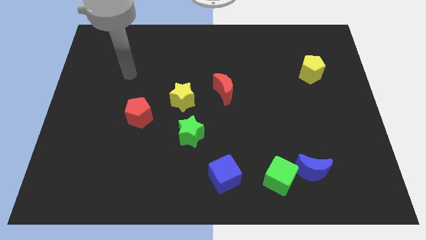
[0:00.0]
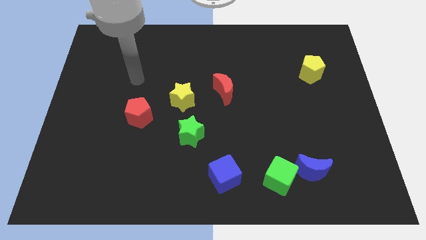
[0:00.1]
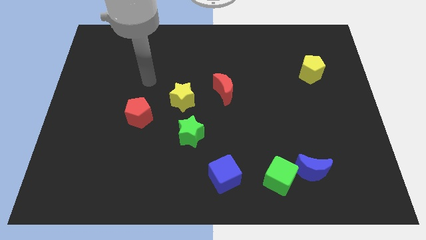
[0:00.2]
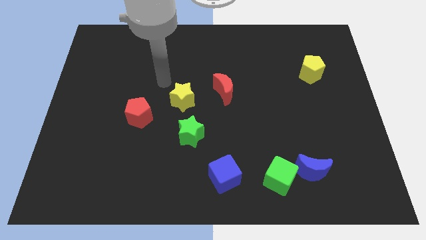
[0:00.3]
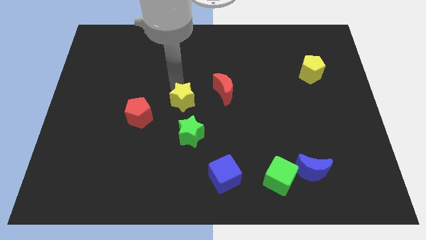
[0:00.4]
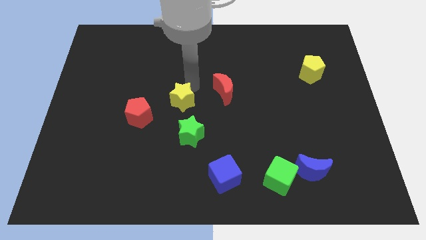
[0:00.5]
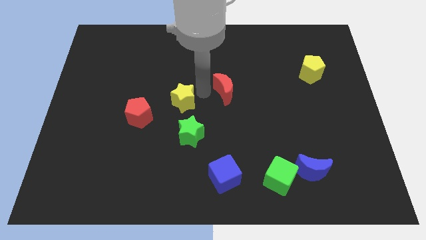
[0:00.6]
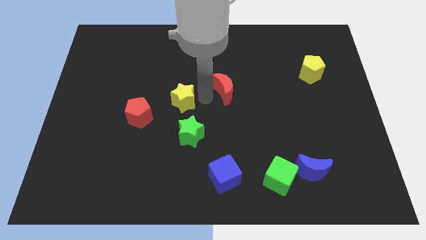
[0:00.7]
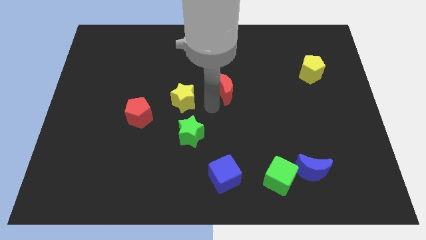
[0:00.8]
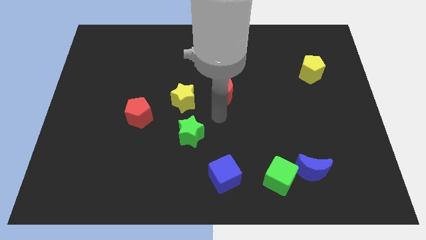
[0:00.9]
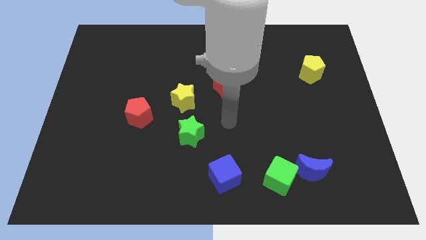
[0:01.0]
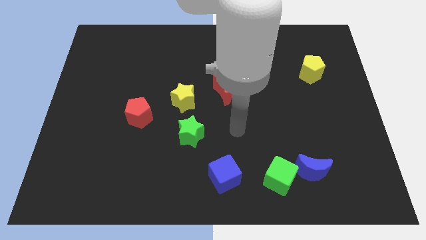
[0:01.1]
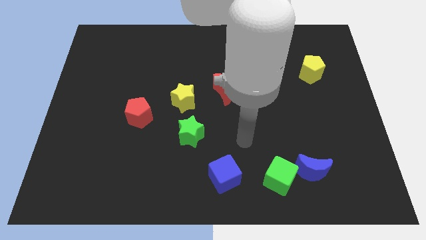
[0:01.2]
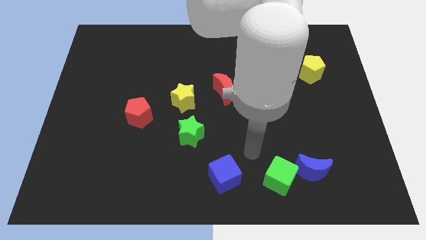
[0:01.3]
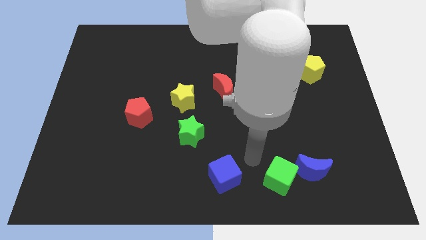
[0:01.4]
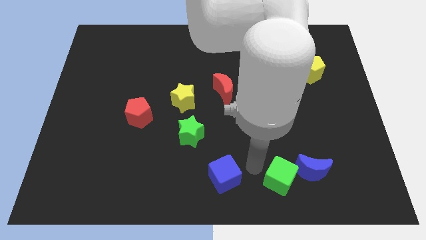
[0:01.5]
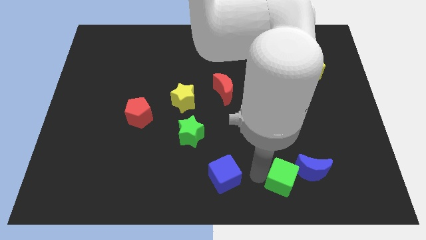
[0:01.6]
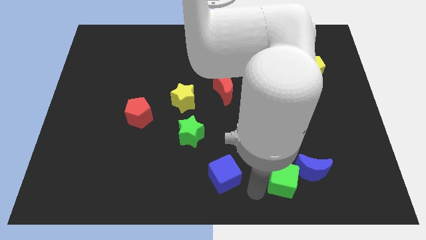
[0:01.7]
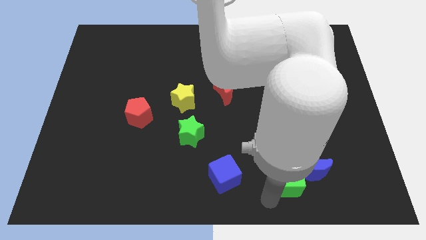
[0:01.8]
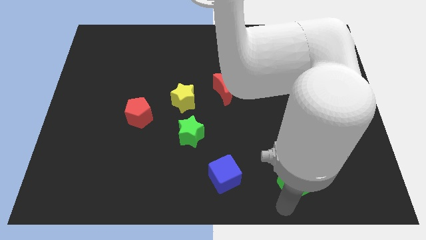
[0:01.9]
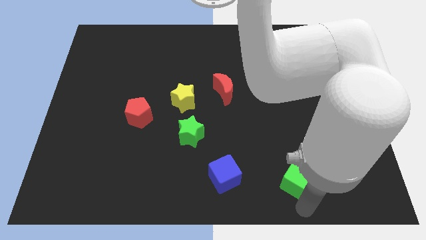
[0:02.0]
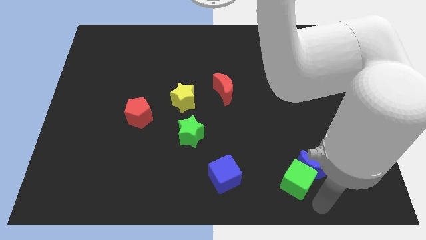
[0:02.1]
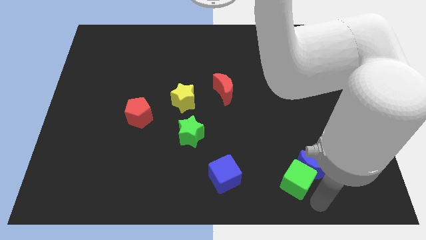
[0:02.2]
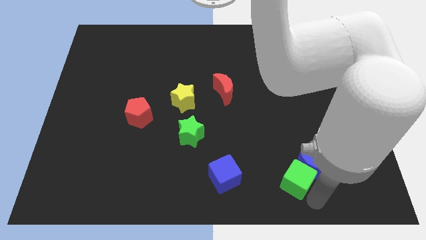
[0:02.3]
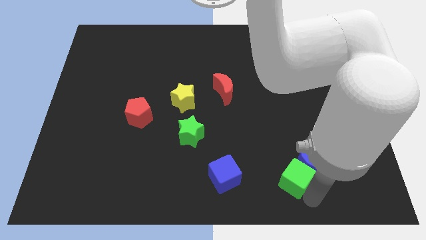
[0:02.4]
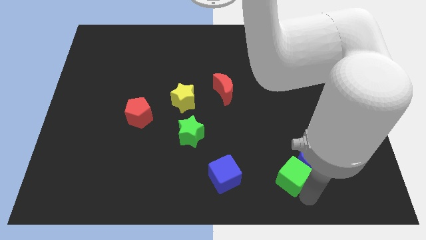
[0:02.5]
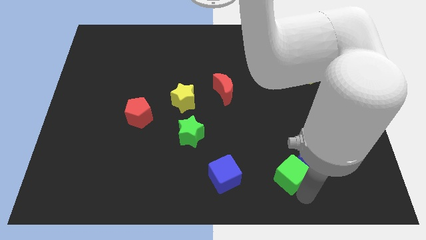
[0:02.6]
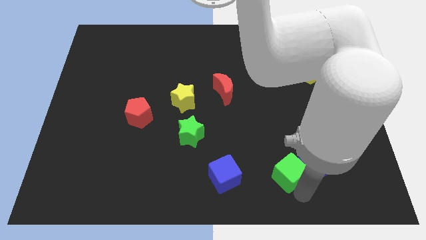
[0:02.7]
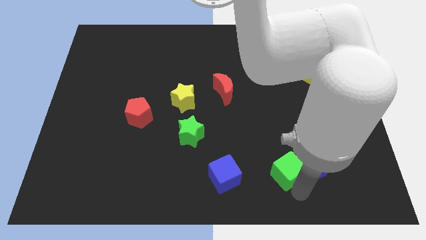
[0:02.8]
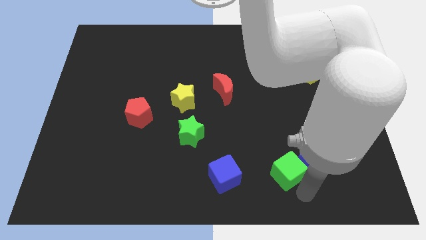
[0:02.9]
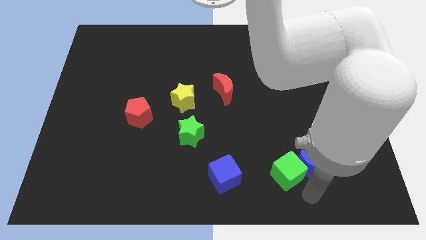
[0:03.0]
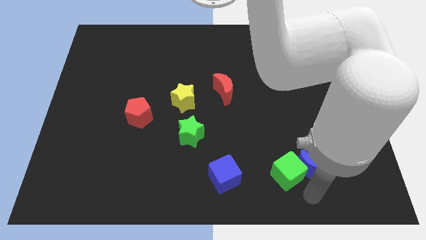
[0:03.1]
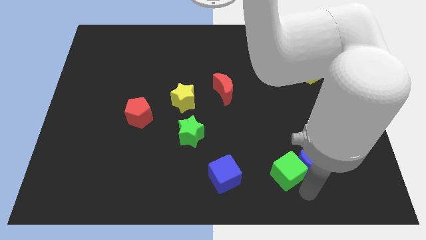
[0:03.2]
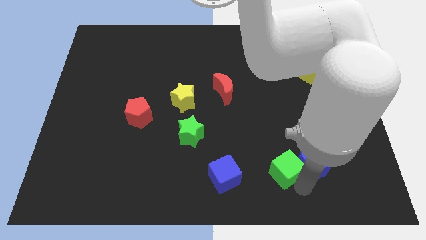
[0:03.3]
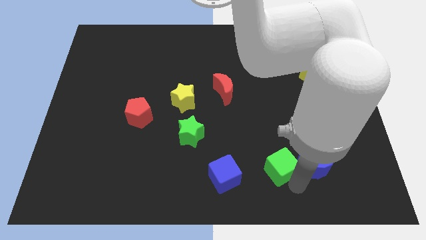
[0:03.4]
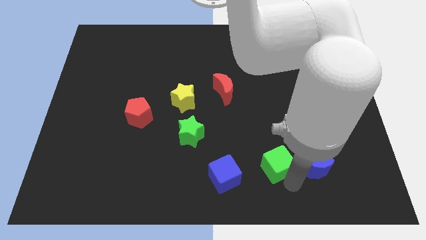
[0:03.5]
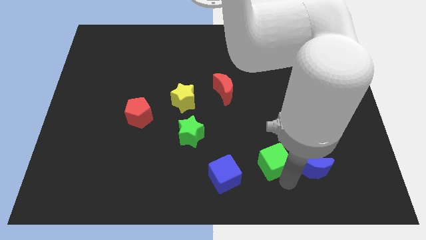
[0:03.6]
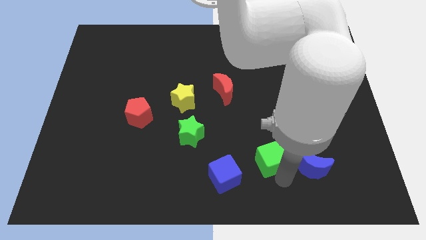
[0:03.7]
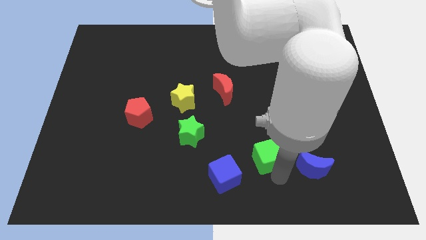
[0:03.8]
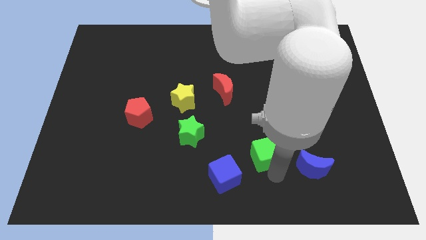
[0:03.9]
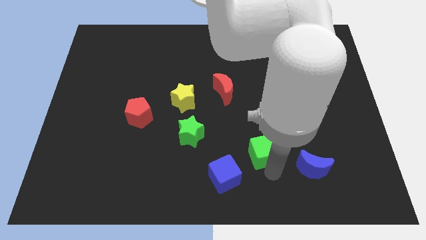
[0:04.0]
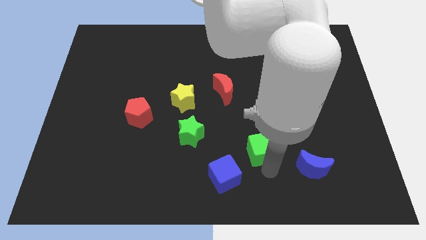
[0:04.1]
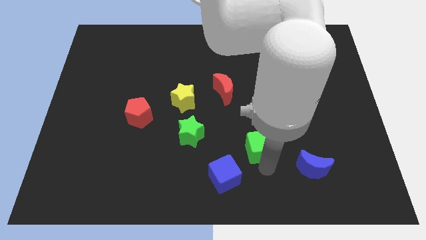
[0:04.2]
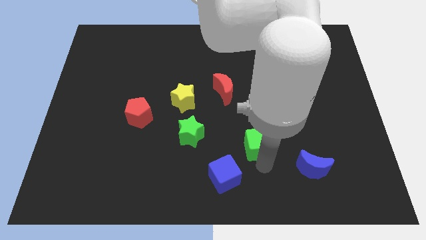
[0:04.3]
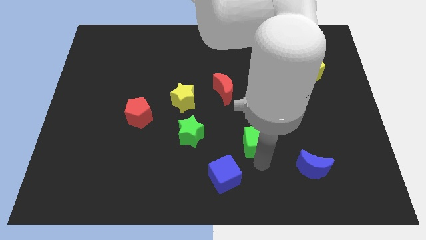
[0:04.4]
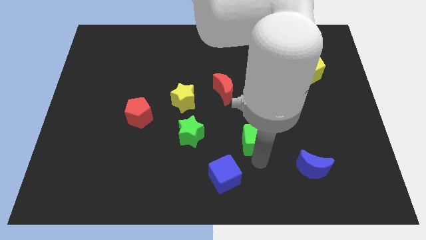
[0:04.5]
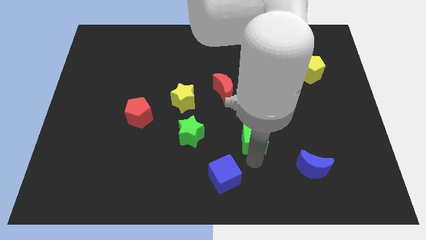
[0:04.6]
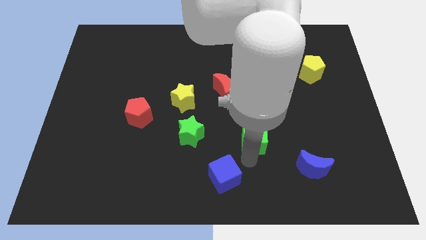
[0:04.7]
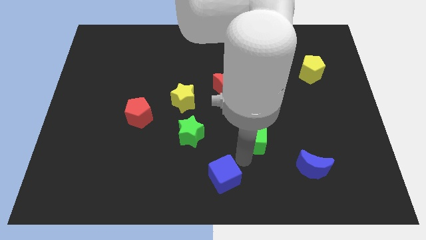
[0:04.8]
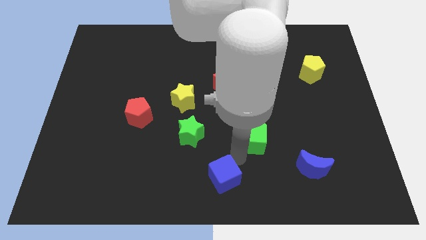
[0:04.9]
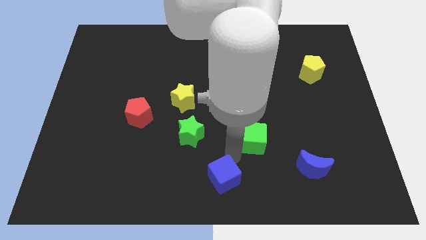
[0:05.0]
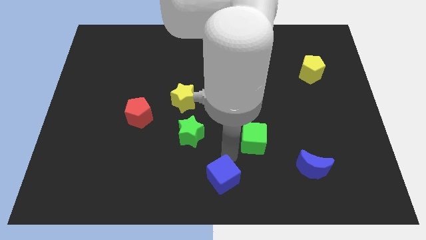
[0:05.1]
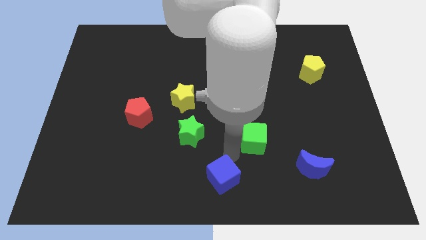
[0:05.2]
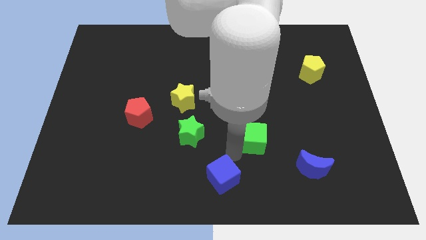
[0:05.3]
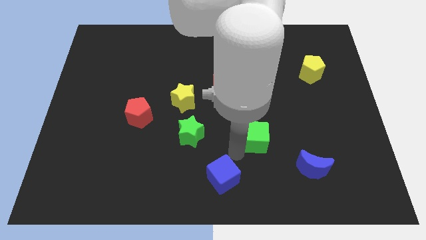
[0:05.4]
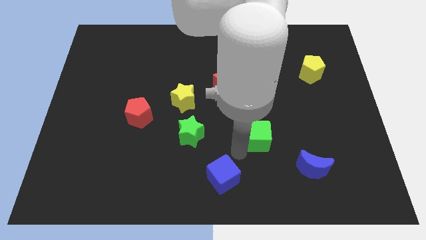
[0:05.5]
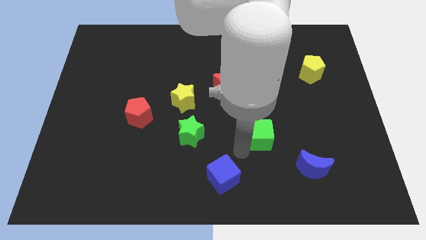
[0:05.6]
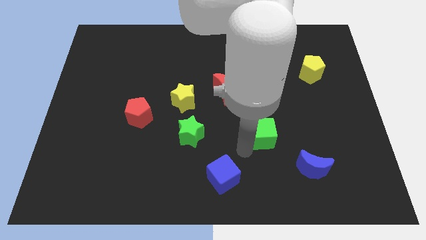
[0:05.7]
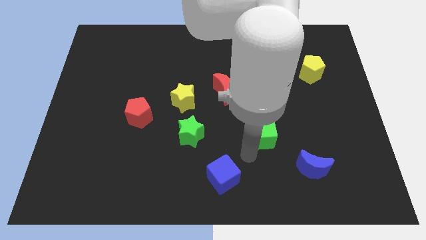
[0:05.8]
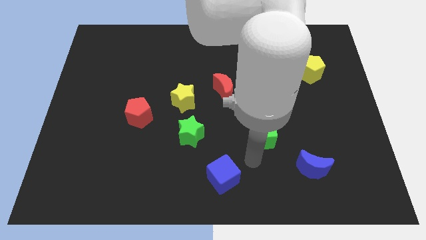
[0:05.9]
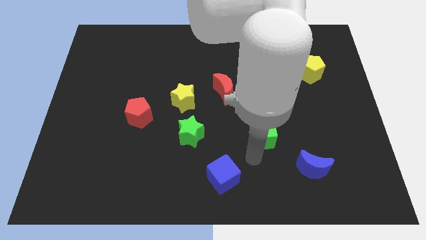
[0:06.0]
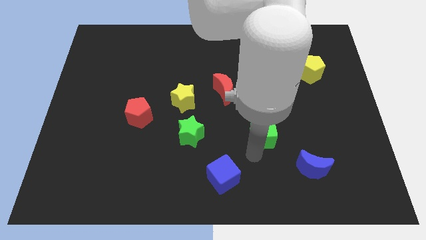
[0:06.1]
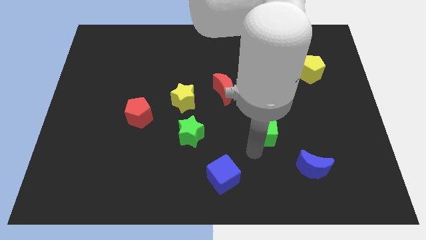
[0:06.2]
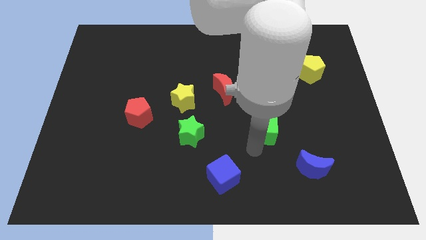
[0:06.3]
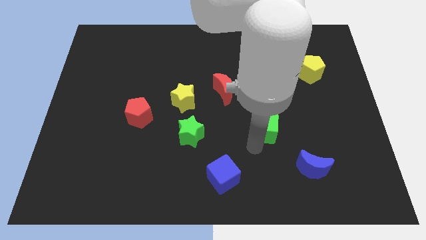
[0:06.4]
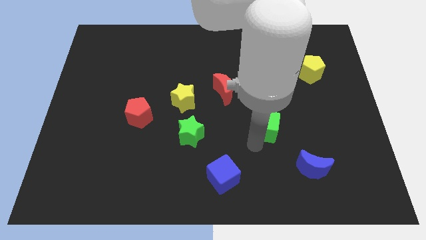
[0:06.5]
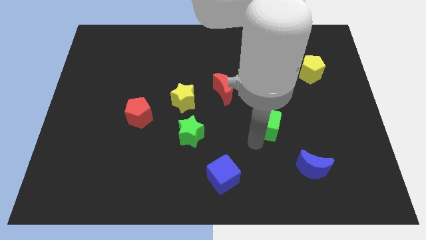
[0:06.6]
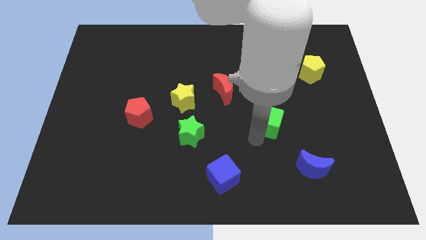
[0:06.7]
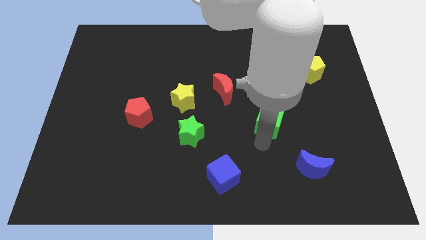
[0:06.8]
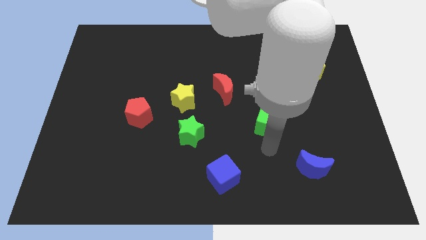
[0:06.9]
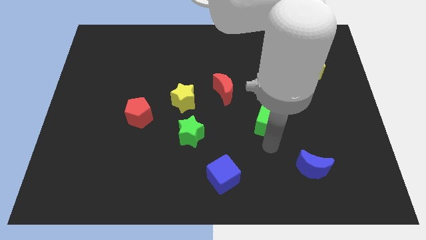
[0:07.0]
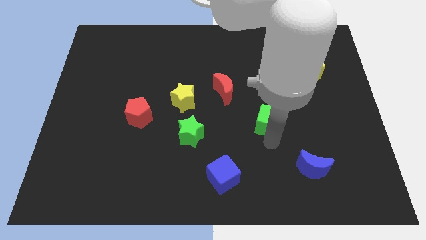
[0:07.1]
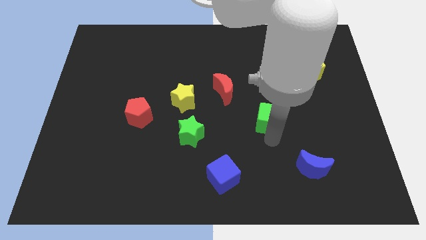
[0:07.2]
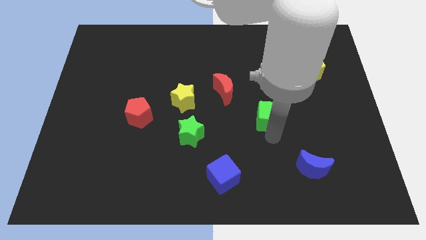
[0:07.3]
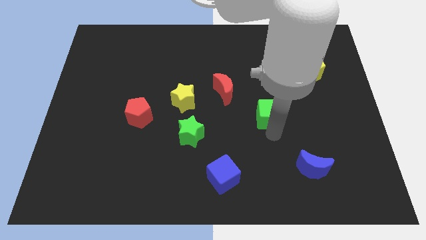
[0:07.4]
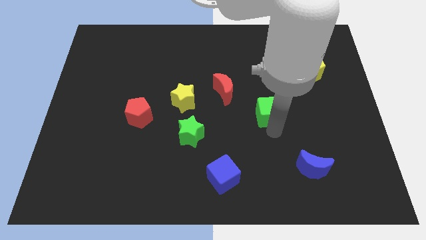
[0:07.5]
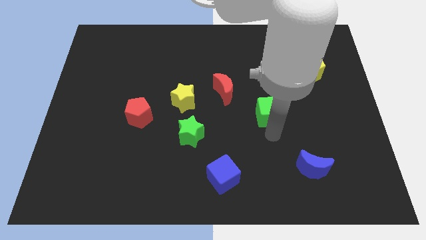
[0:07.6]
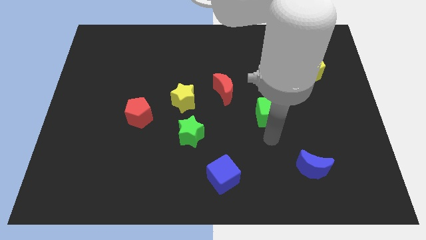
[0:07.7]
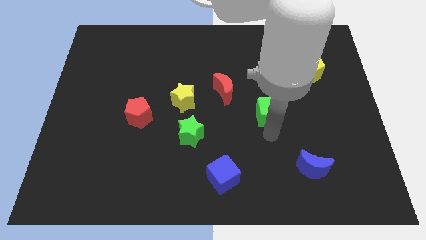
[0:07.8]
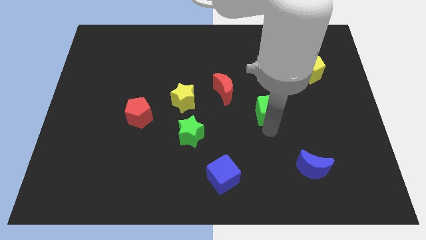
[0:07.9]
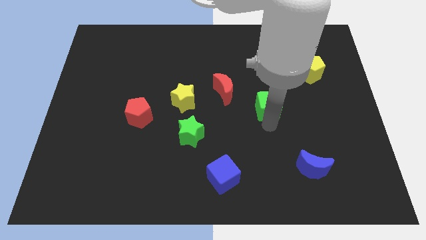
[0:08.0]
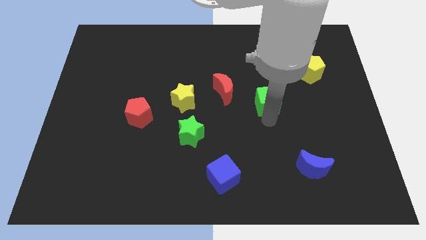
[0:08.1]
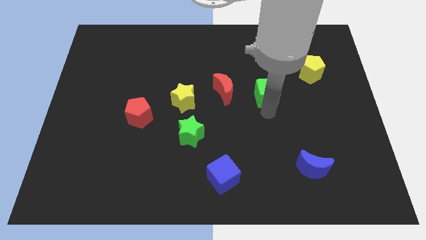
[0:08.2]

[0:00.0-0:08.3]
move the green cube up

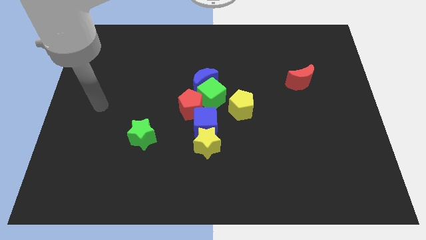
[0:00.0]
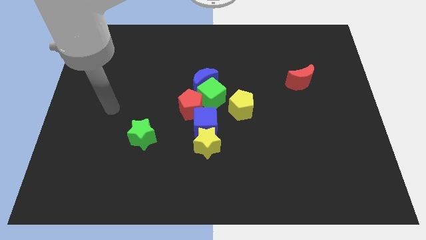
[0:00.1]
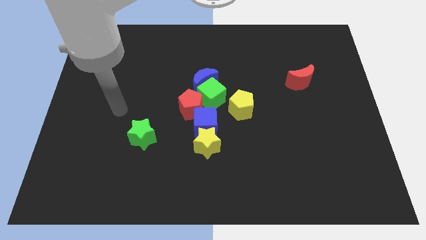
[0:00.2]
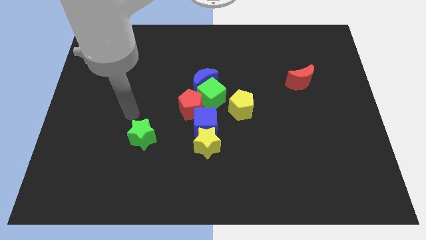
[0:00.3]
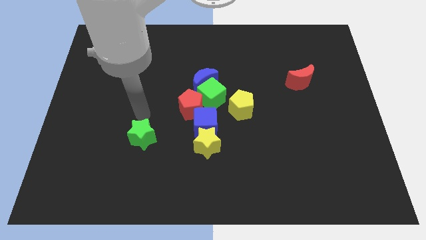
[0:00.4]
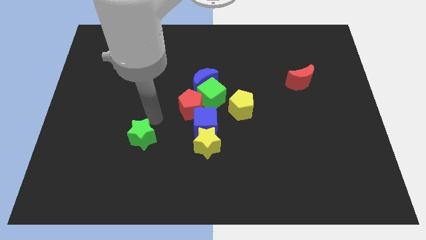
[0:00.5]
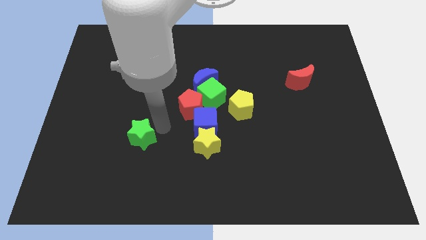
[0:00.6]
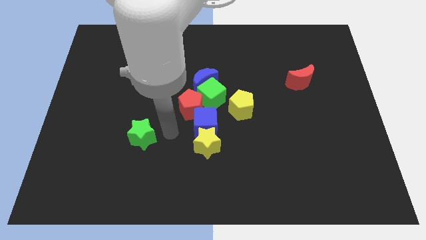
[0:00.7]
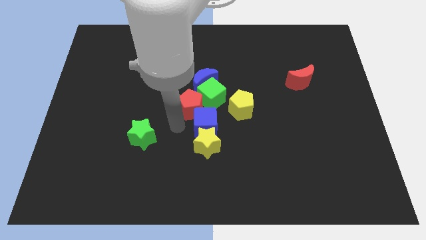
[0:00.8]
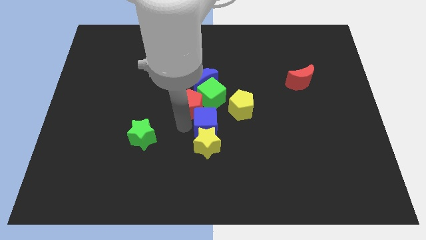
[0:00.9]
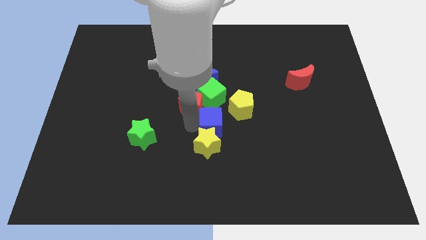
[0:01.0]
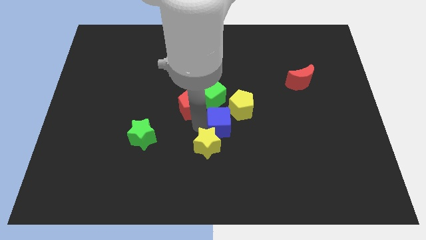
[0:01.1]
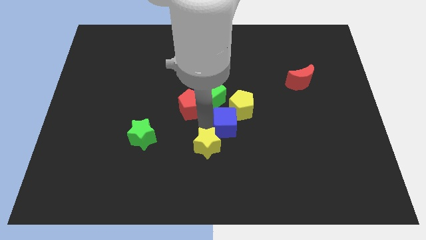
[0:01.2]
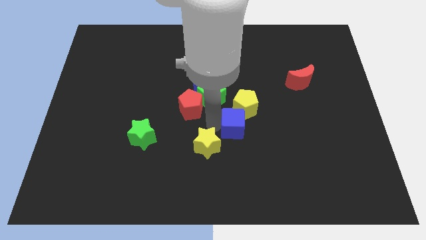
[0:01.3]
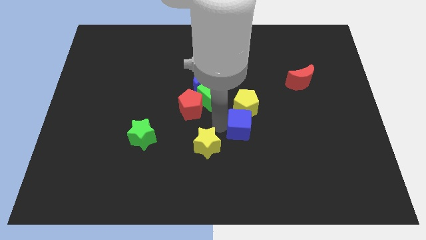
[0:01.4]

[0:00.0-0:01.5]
move the blue cube right somewhat
